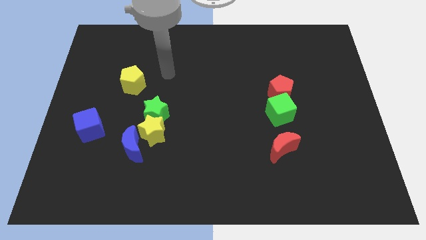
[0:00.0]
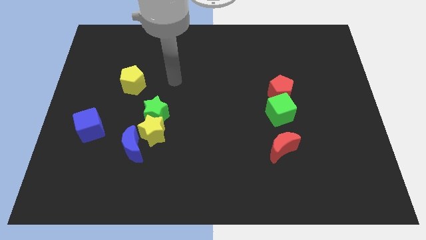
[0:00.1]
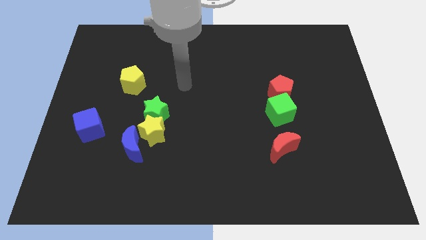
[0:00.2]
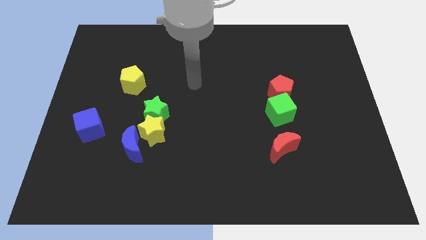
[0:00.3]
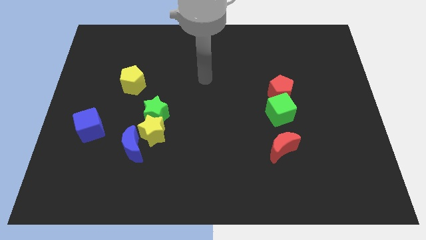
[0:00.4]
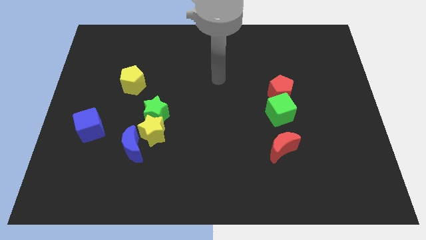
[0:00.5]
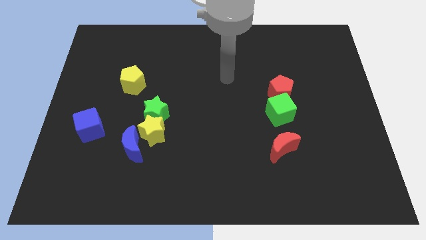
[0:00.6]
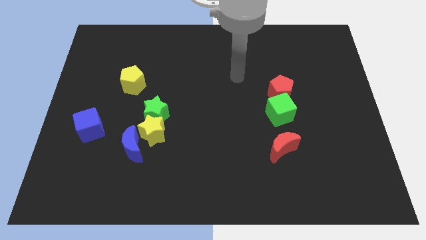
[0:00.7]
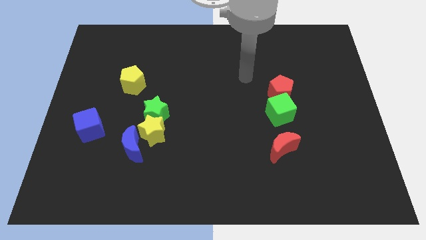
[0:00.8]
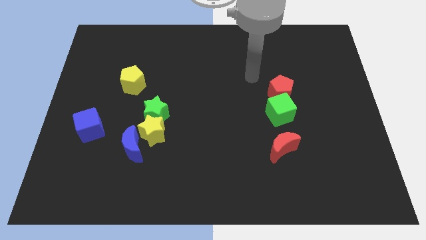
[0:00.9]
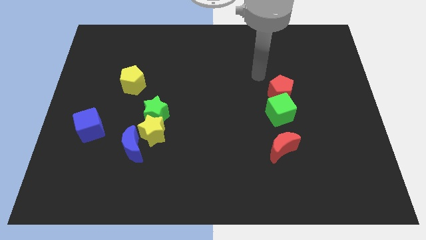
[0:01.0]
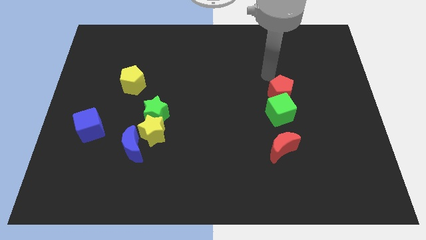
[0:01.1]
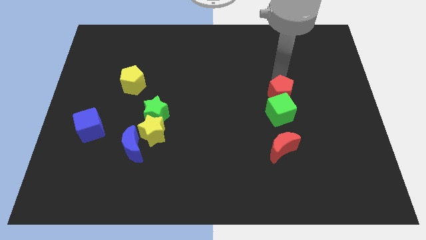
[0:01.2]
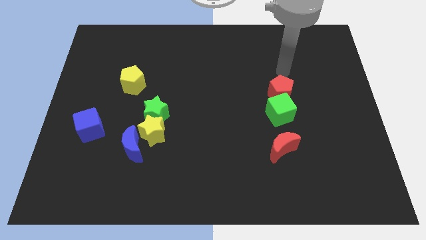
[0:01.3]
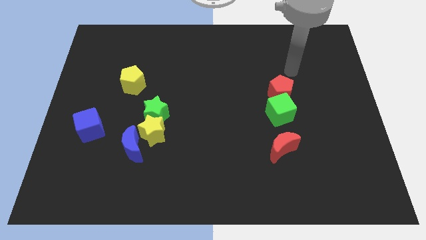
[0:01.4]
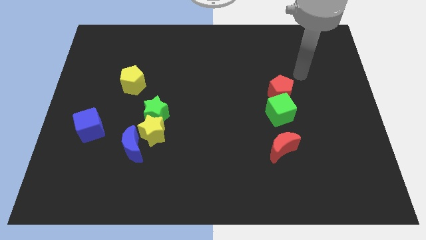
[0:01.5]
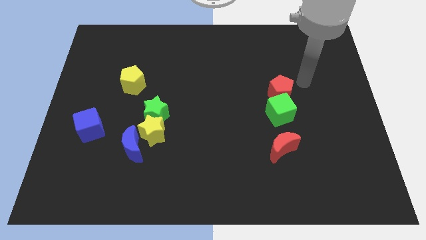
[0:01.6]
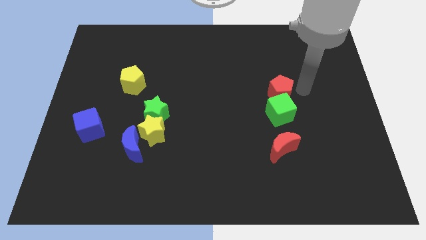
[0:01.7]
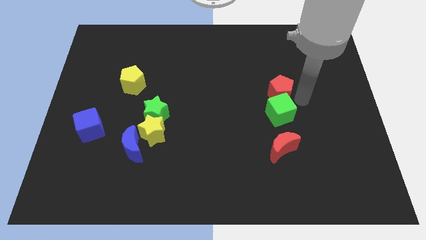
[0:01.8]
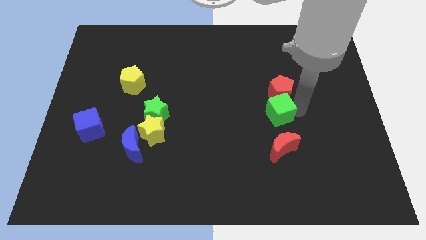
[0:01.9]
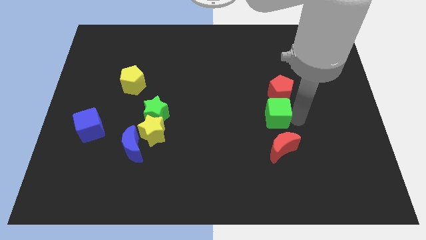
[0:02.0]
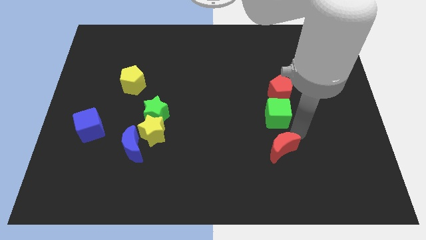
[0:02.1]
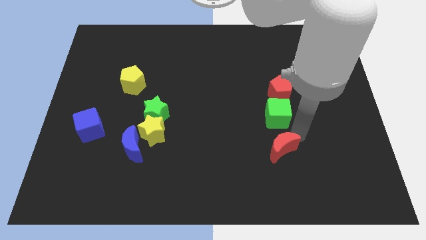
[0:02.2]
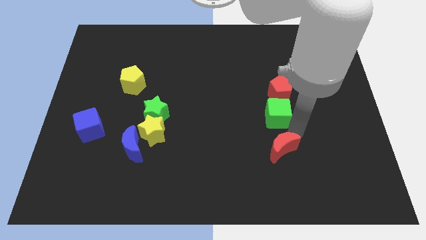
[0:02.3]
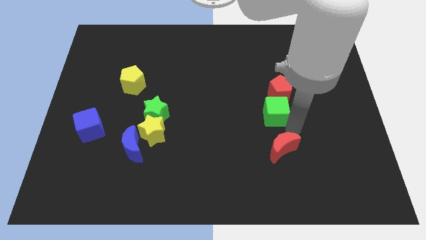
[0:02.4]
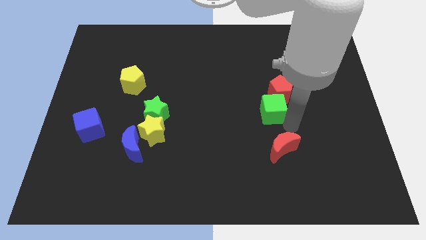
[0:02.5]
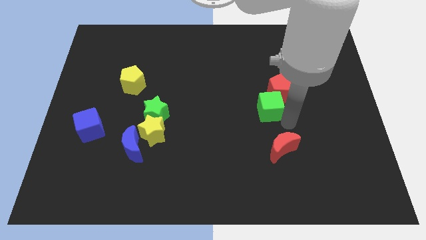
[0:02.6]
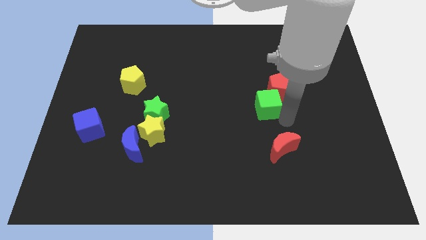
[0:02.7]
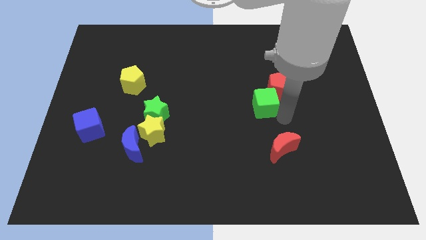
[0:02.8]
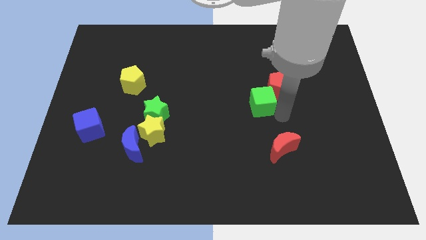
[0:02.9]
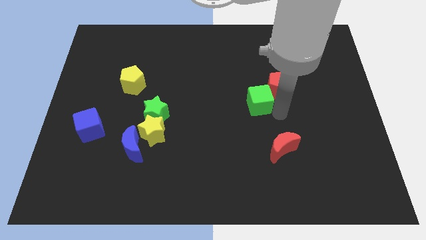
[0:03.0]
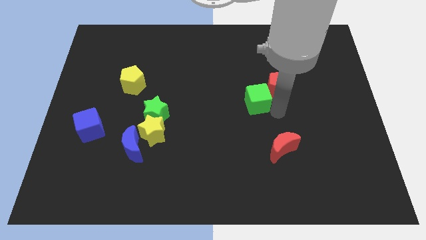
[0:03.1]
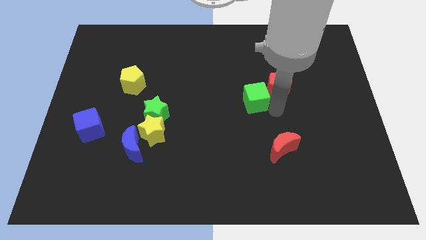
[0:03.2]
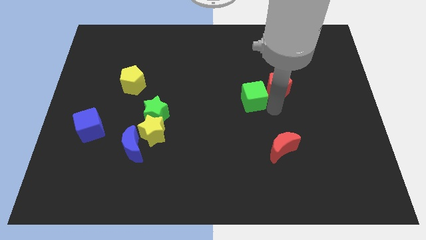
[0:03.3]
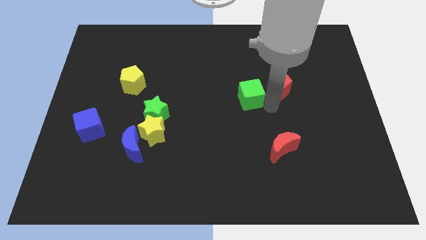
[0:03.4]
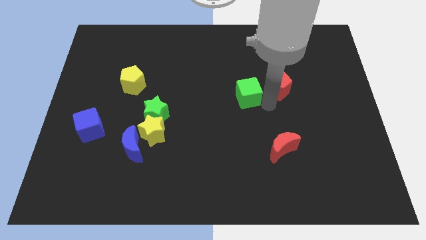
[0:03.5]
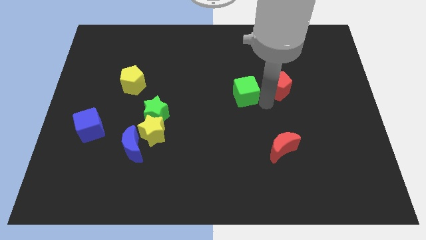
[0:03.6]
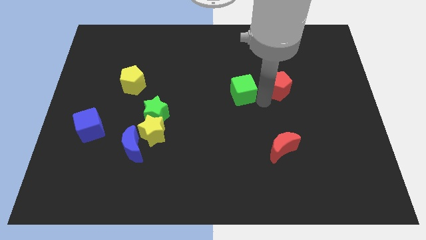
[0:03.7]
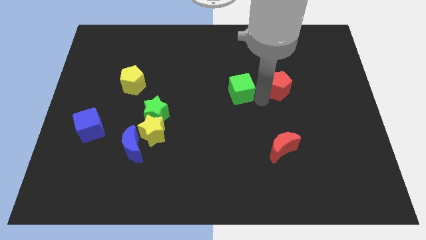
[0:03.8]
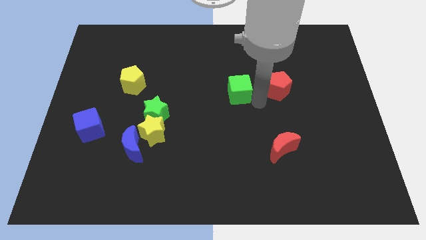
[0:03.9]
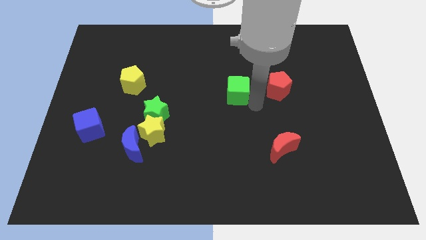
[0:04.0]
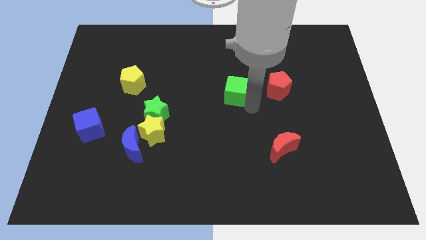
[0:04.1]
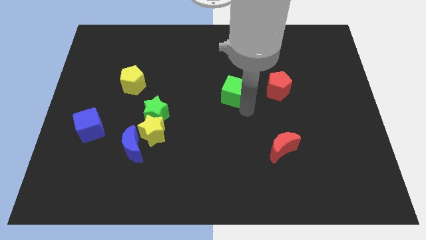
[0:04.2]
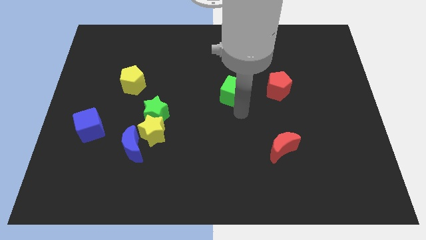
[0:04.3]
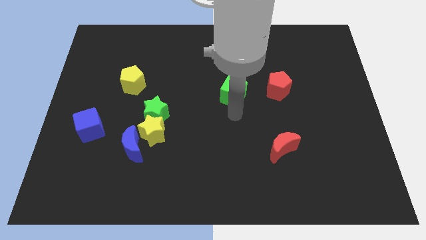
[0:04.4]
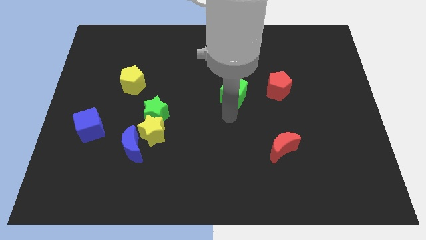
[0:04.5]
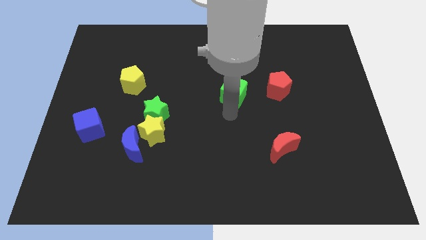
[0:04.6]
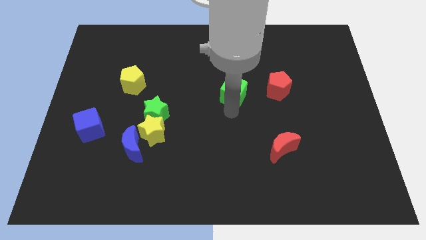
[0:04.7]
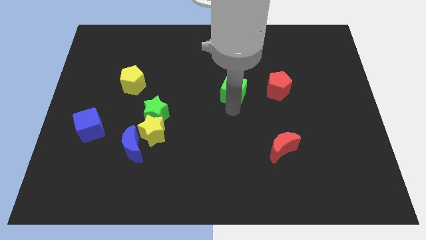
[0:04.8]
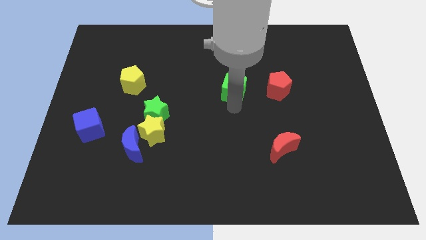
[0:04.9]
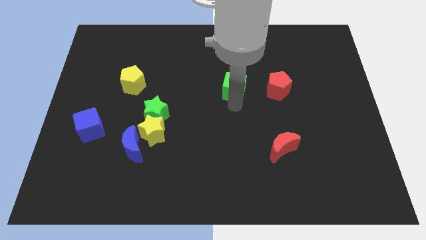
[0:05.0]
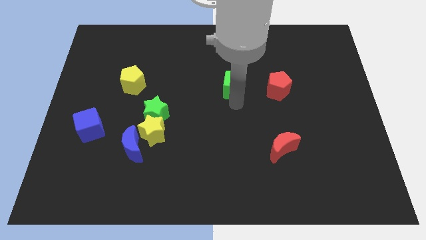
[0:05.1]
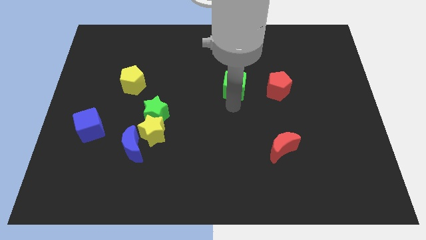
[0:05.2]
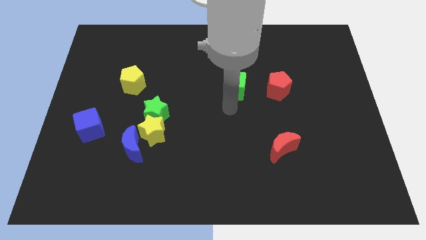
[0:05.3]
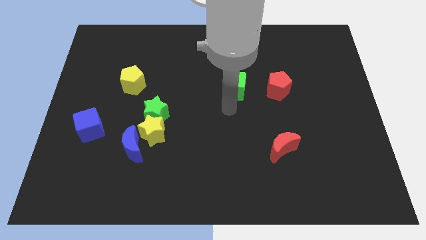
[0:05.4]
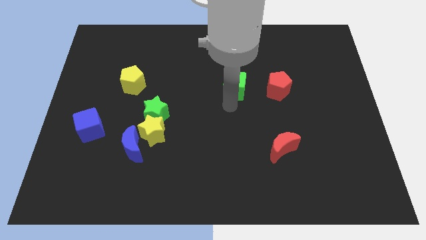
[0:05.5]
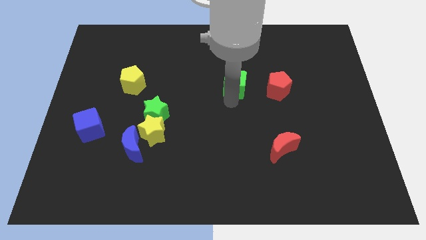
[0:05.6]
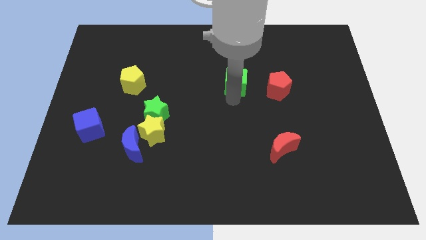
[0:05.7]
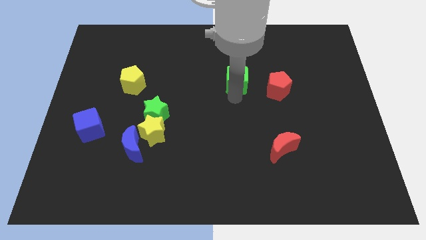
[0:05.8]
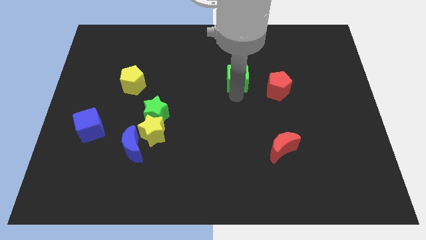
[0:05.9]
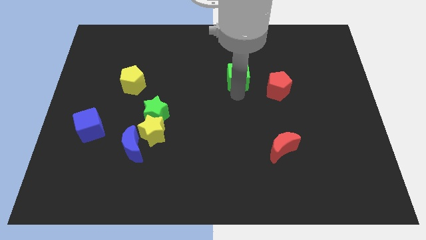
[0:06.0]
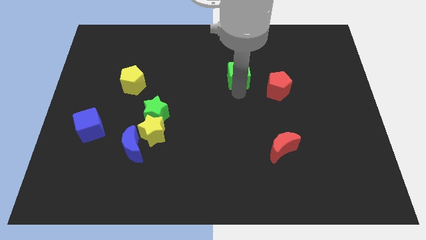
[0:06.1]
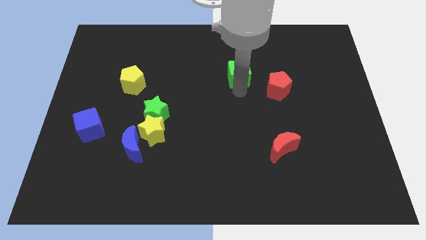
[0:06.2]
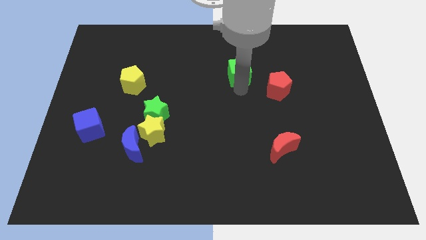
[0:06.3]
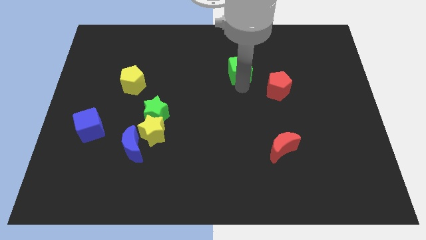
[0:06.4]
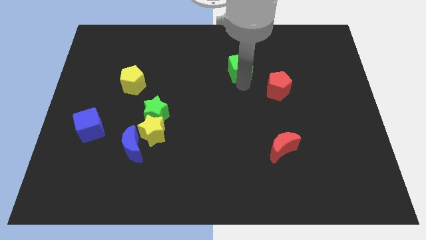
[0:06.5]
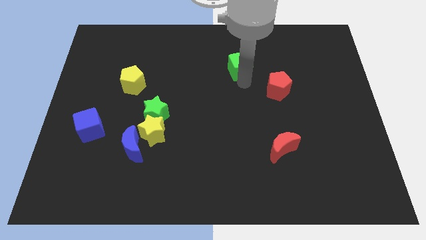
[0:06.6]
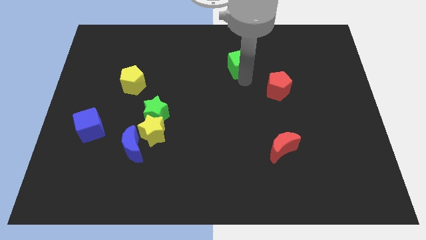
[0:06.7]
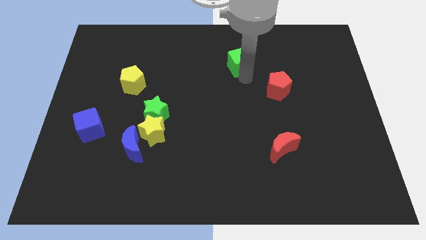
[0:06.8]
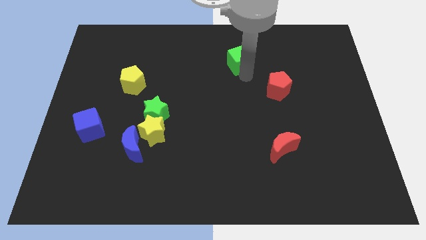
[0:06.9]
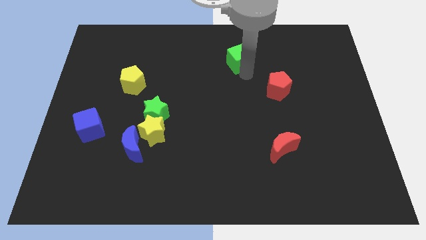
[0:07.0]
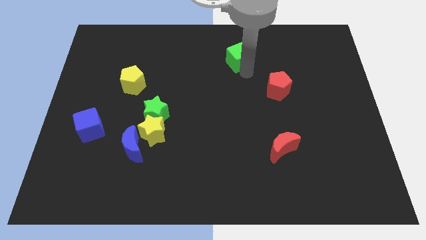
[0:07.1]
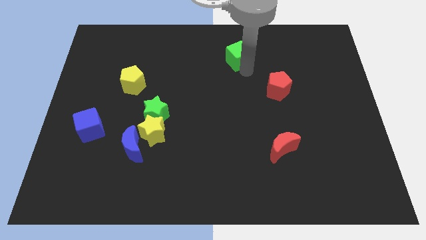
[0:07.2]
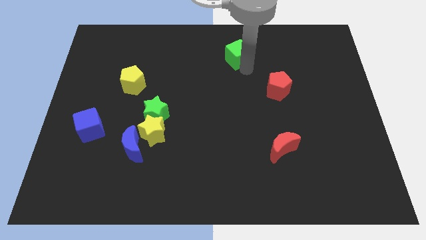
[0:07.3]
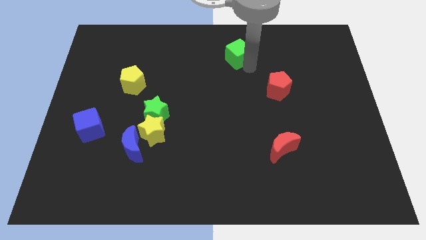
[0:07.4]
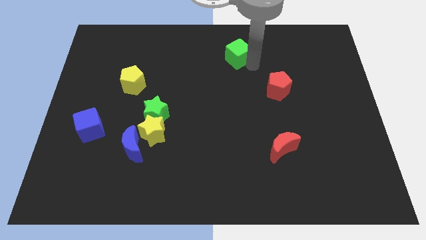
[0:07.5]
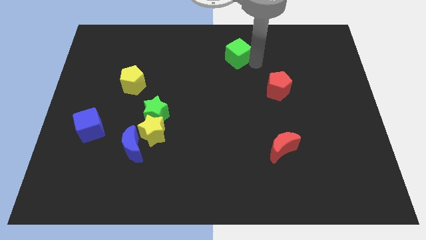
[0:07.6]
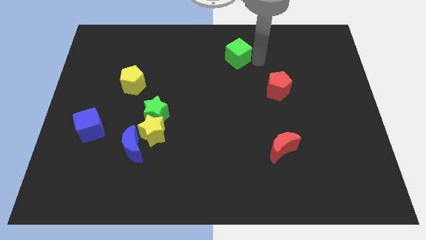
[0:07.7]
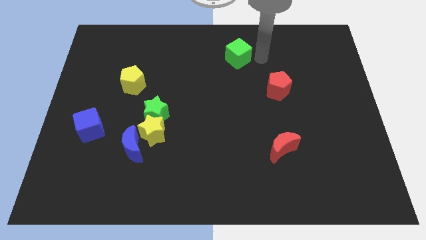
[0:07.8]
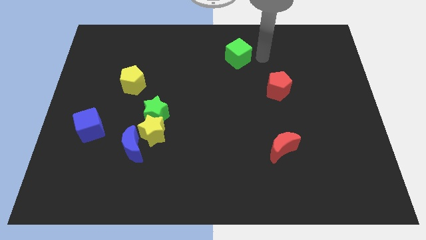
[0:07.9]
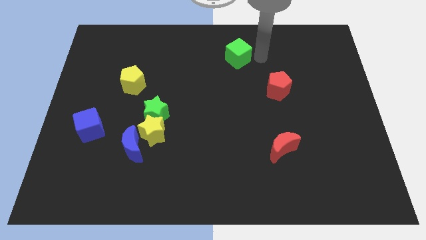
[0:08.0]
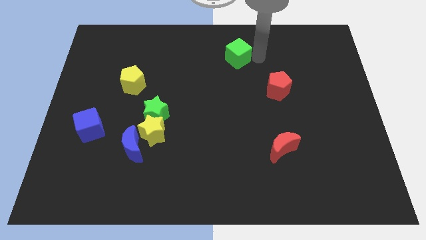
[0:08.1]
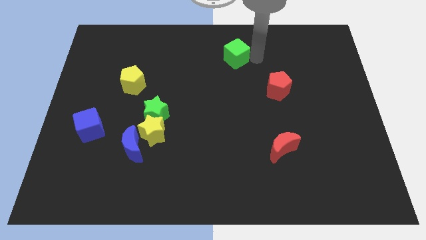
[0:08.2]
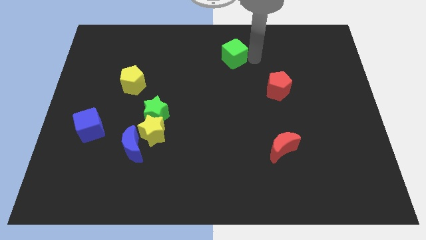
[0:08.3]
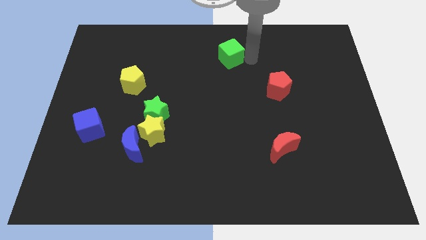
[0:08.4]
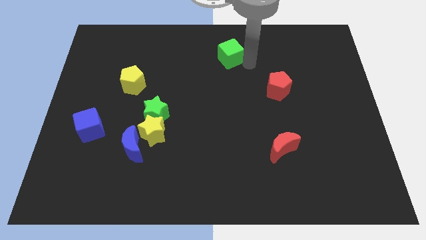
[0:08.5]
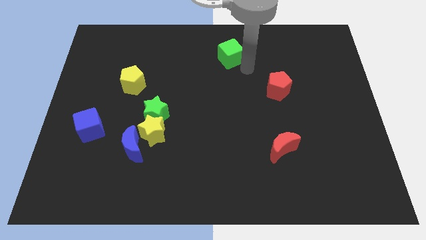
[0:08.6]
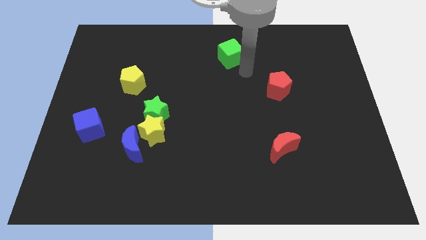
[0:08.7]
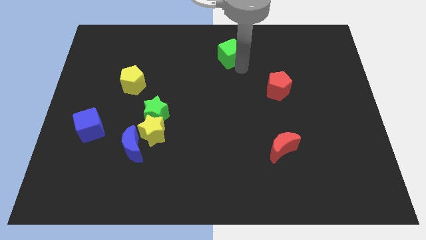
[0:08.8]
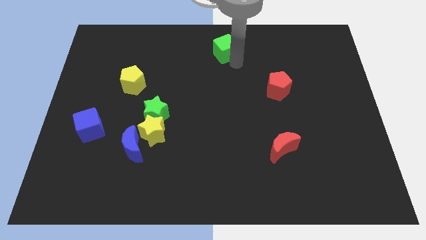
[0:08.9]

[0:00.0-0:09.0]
slide the green cube to the top
